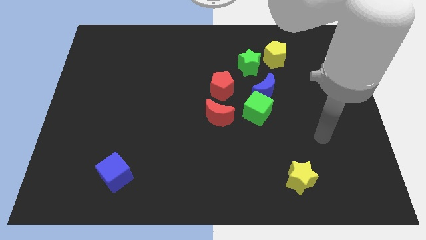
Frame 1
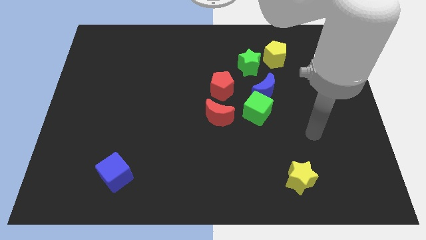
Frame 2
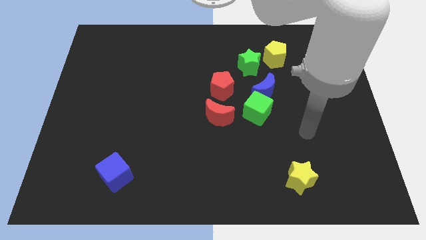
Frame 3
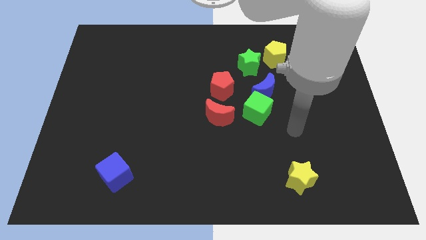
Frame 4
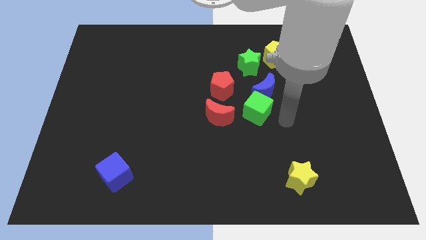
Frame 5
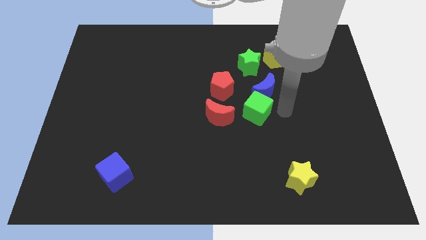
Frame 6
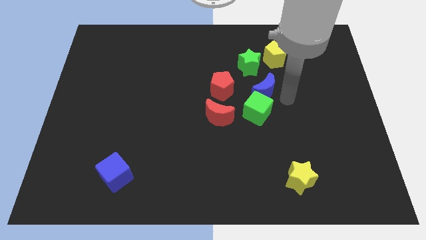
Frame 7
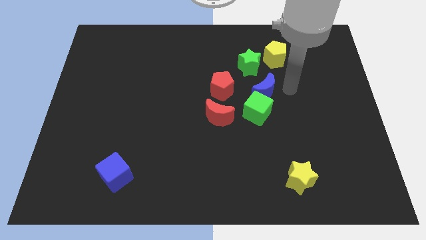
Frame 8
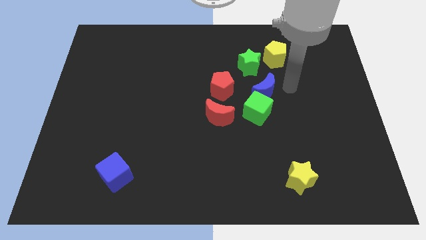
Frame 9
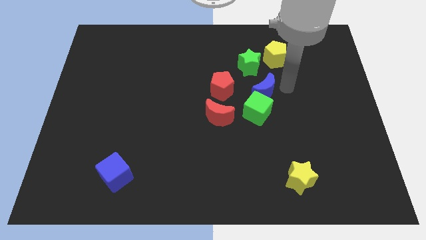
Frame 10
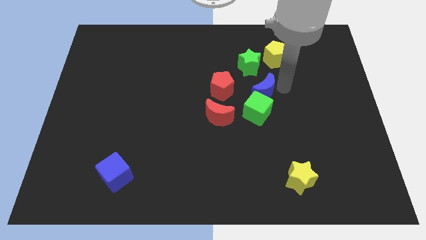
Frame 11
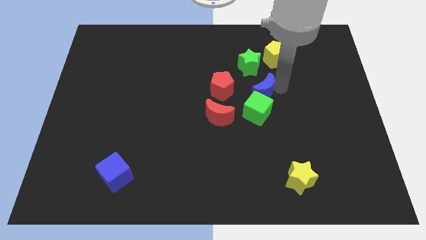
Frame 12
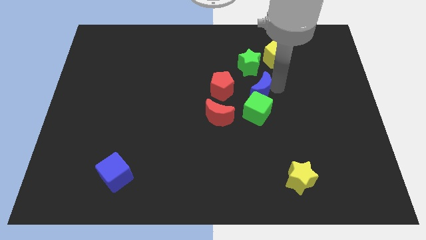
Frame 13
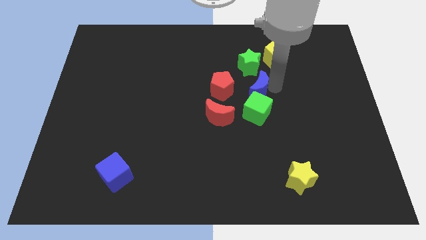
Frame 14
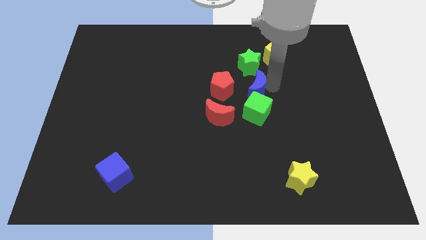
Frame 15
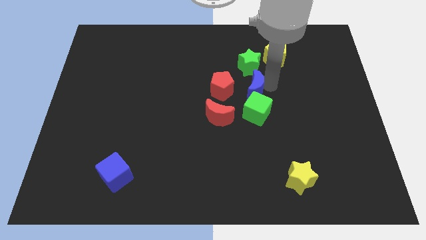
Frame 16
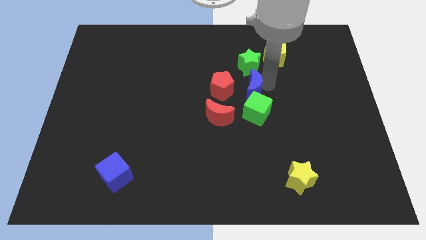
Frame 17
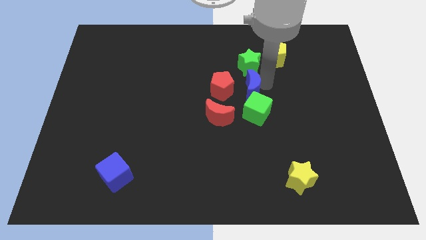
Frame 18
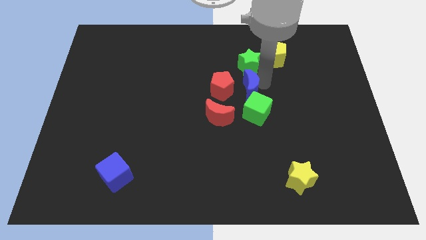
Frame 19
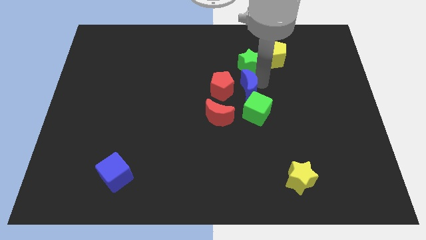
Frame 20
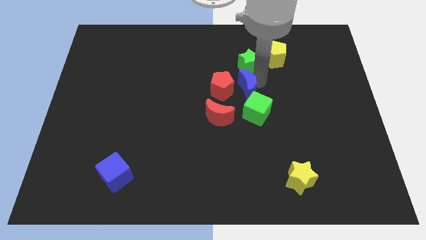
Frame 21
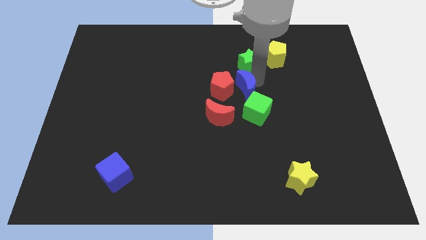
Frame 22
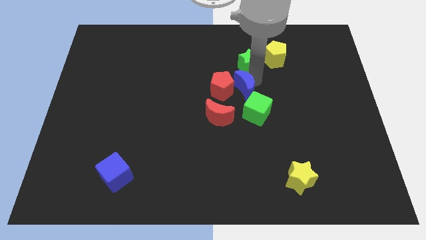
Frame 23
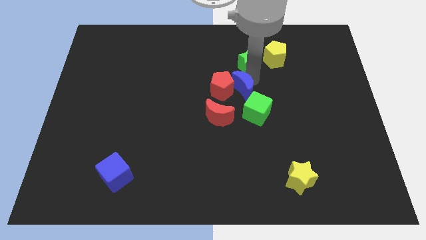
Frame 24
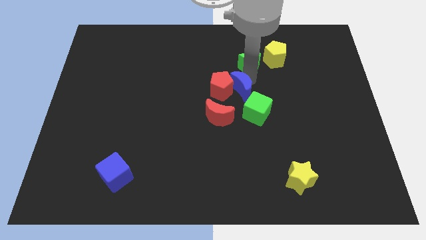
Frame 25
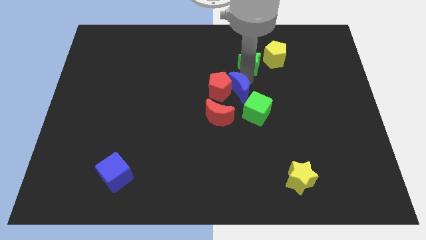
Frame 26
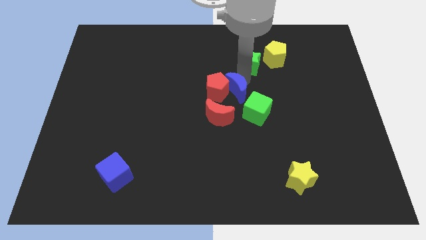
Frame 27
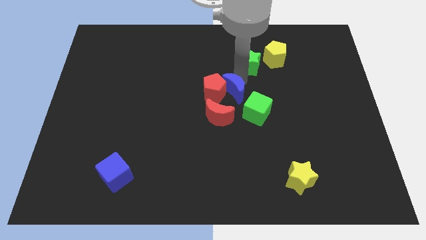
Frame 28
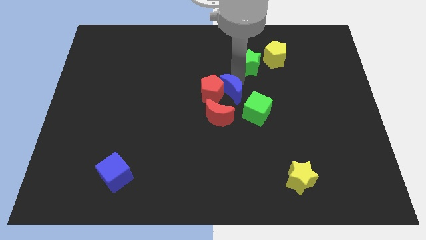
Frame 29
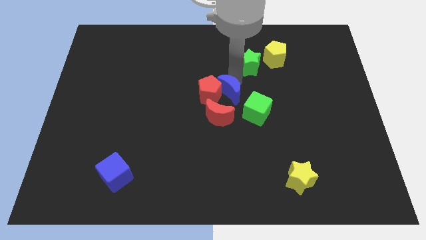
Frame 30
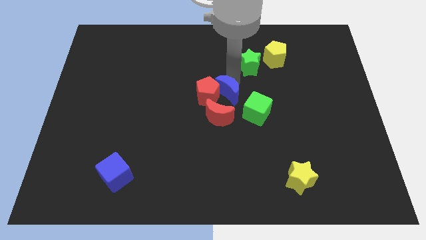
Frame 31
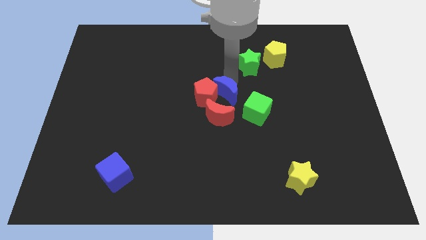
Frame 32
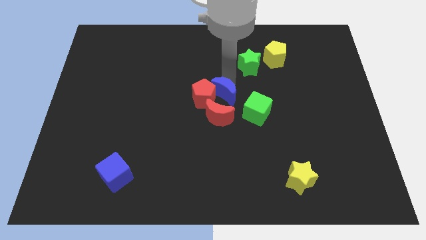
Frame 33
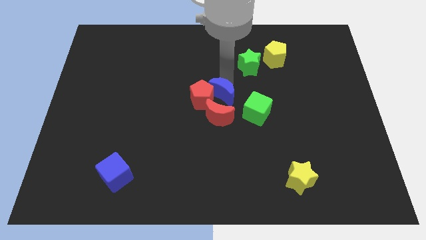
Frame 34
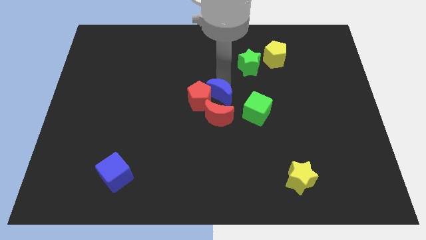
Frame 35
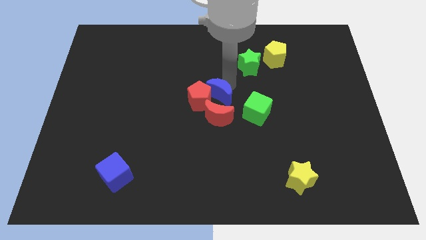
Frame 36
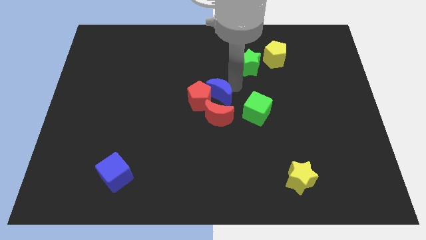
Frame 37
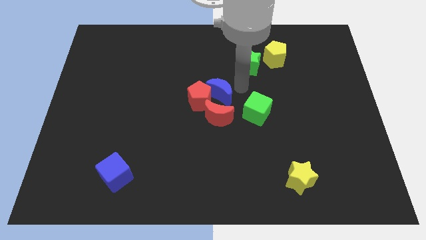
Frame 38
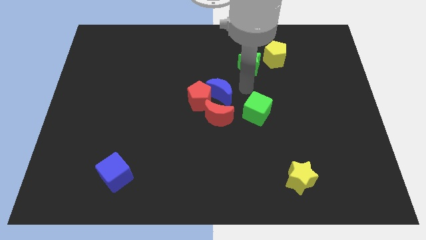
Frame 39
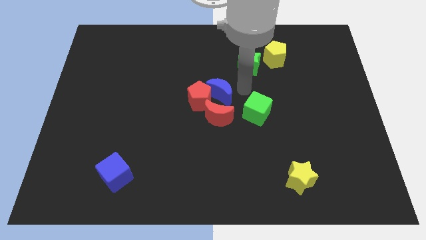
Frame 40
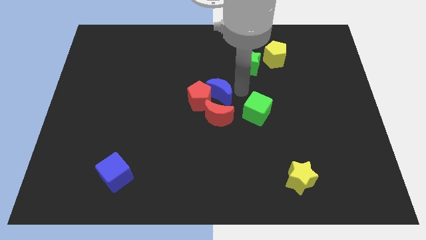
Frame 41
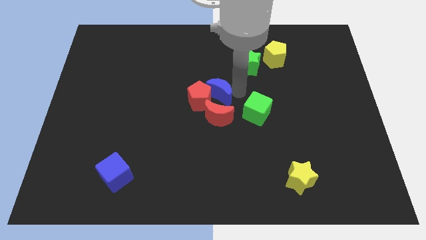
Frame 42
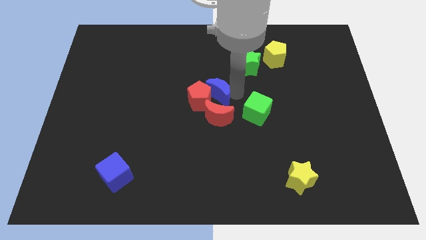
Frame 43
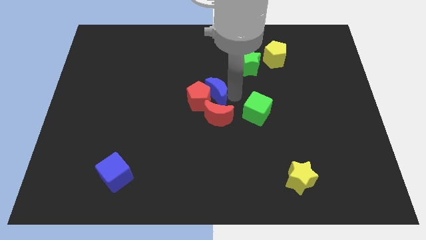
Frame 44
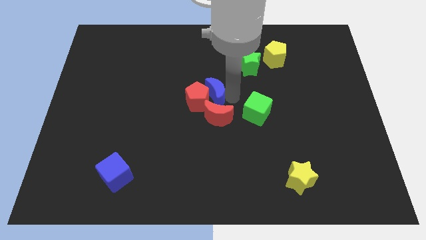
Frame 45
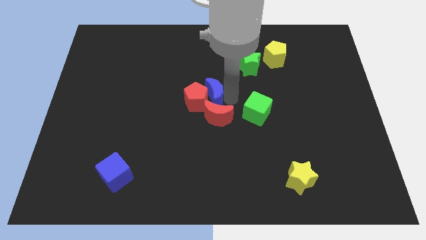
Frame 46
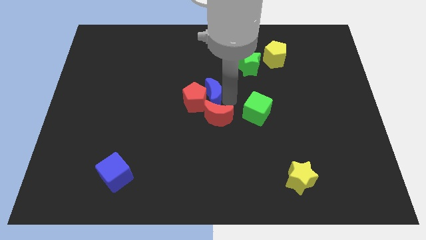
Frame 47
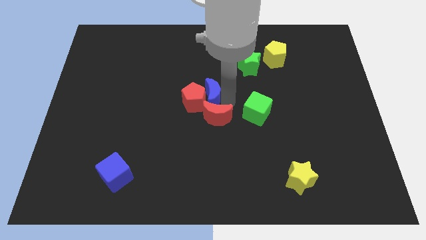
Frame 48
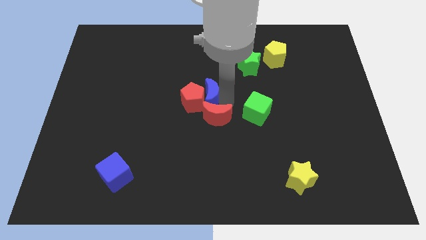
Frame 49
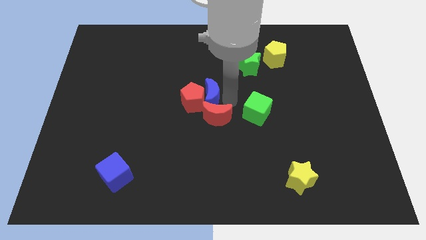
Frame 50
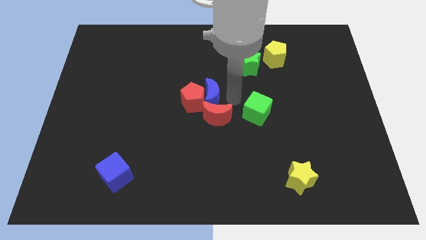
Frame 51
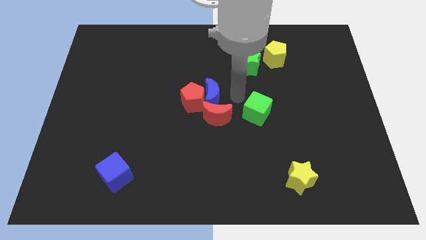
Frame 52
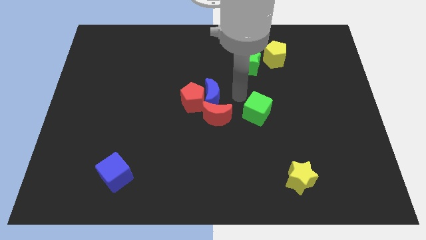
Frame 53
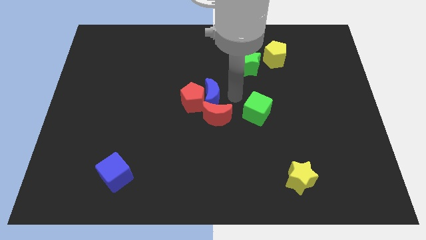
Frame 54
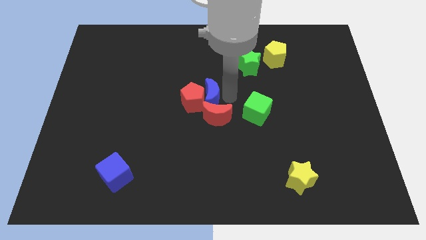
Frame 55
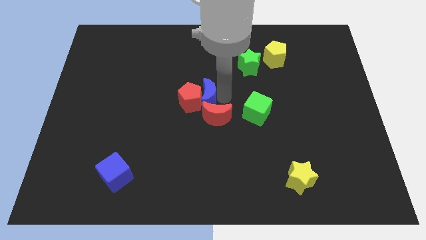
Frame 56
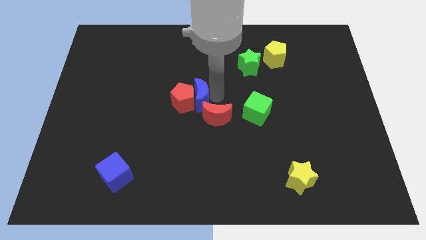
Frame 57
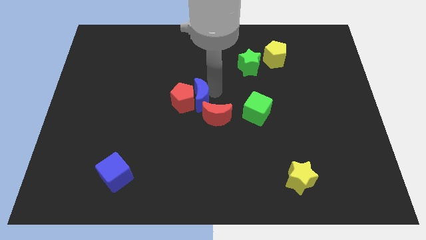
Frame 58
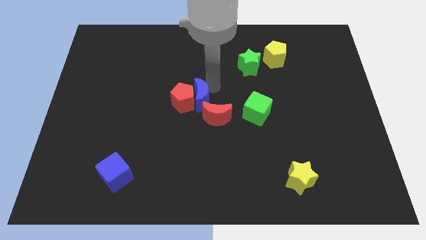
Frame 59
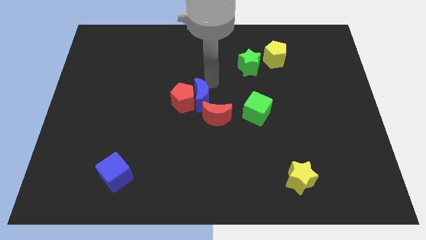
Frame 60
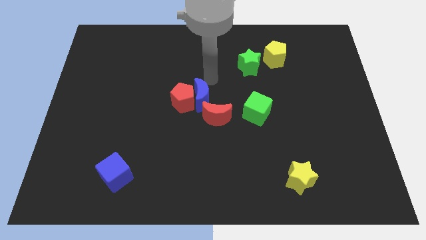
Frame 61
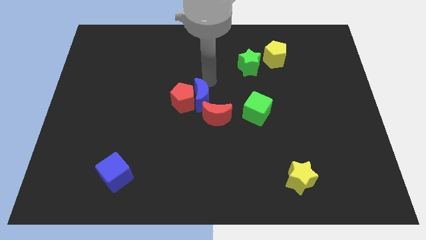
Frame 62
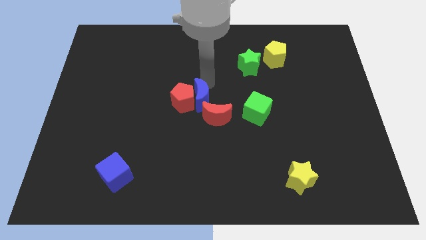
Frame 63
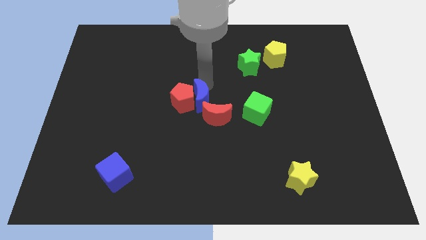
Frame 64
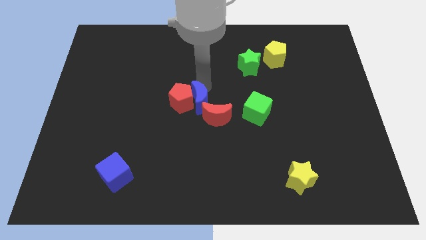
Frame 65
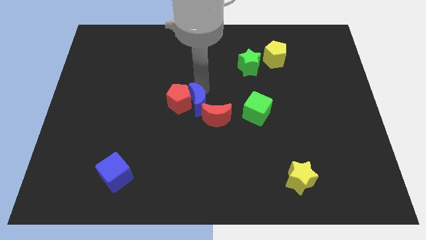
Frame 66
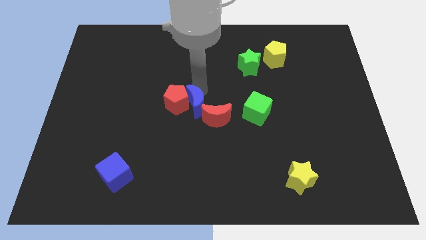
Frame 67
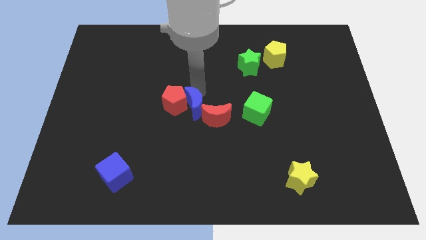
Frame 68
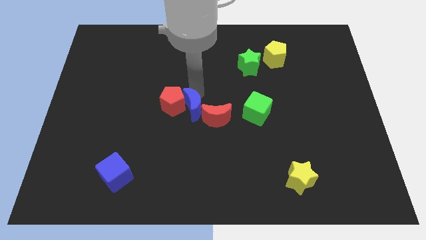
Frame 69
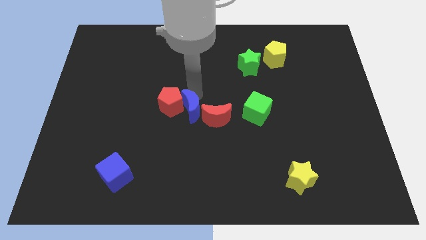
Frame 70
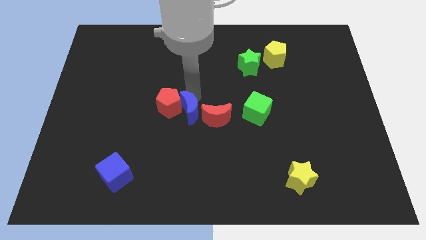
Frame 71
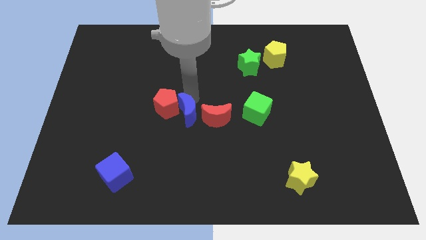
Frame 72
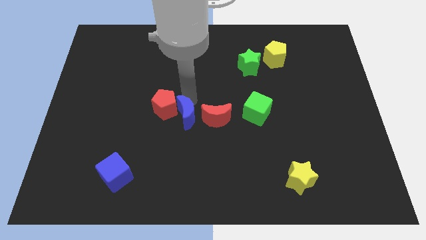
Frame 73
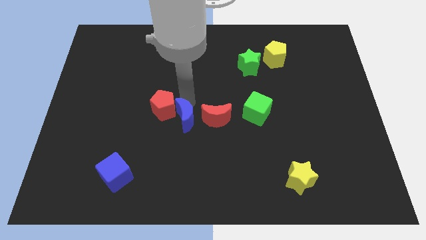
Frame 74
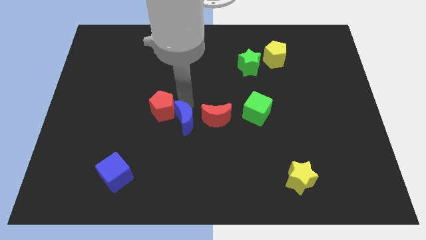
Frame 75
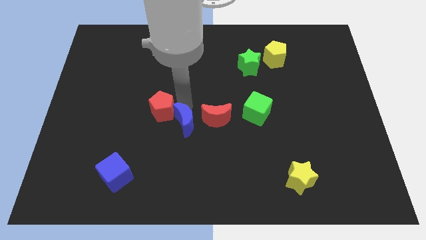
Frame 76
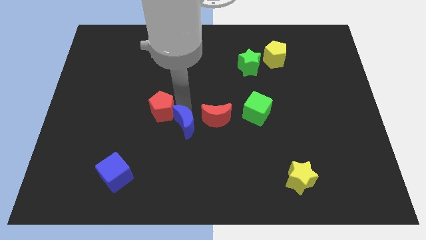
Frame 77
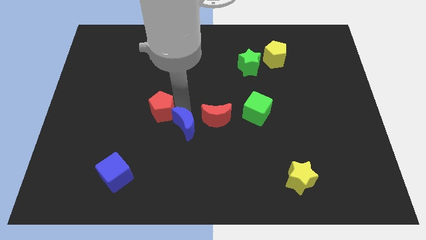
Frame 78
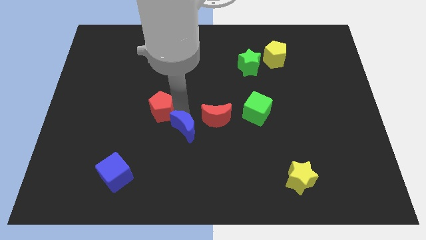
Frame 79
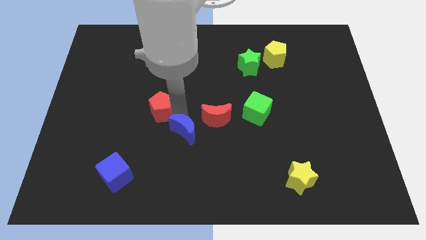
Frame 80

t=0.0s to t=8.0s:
push the blue moon down and to the left diagonally
